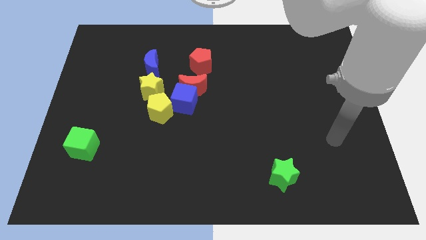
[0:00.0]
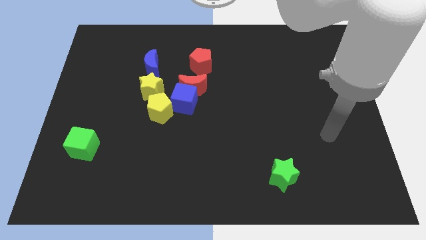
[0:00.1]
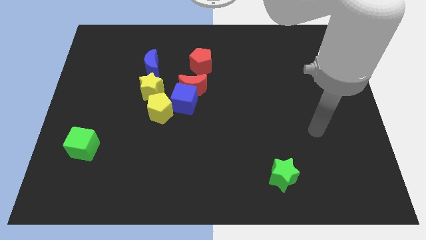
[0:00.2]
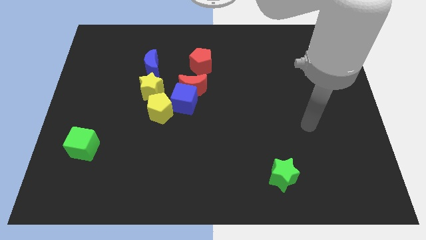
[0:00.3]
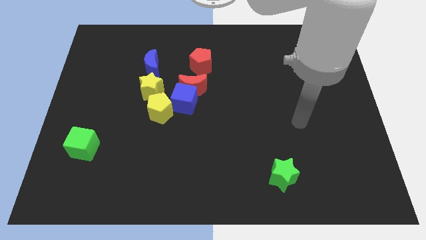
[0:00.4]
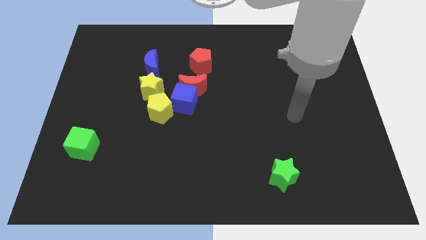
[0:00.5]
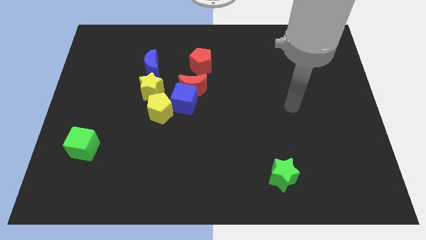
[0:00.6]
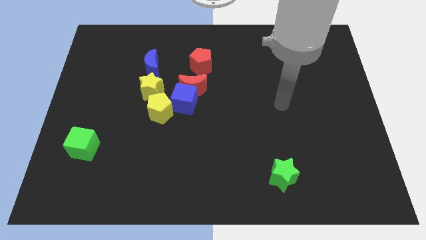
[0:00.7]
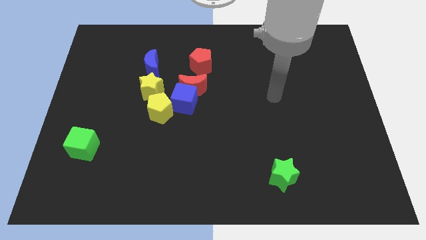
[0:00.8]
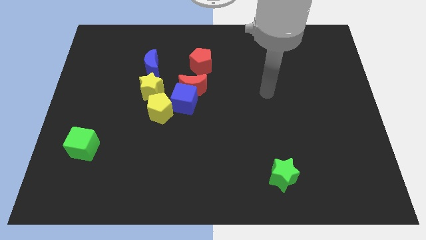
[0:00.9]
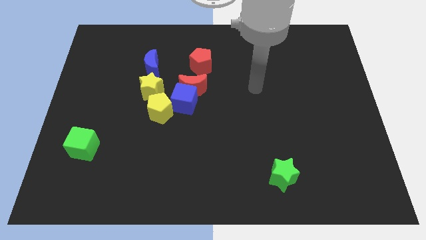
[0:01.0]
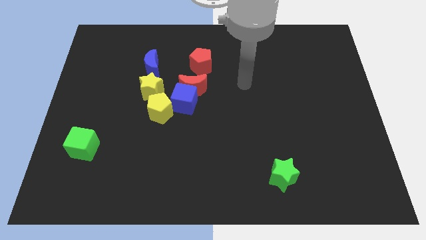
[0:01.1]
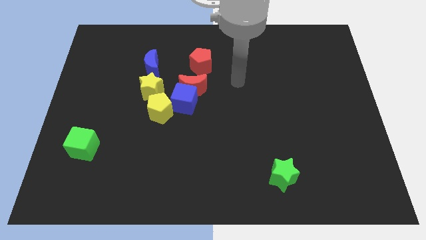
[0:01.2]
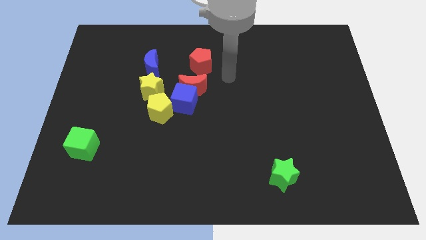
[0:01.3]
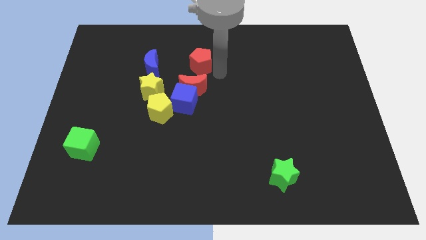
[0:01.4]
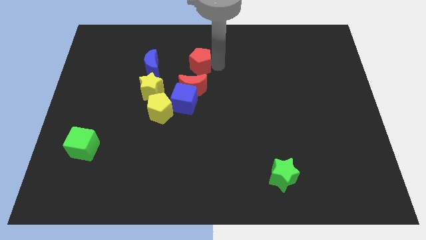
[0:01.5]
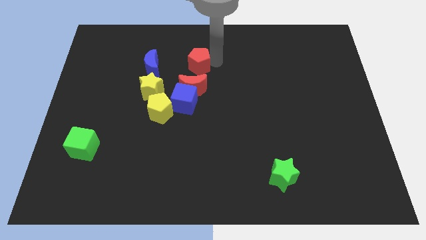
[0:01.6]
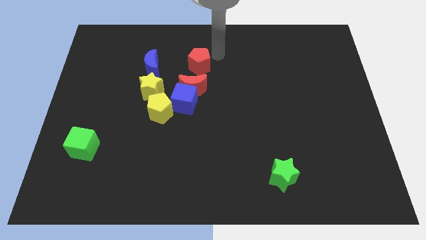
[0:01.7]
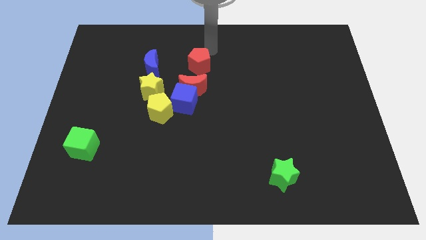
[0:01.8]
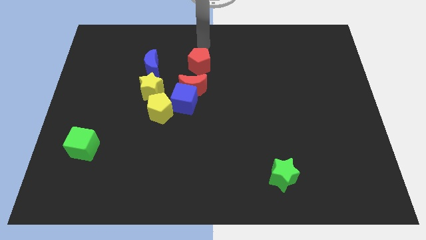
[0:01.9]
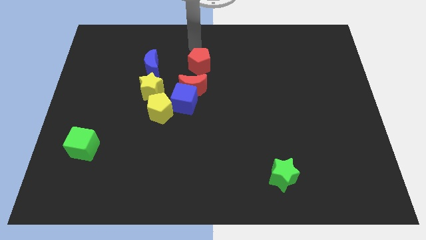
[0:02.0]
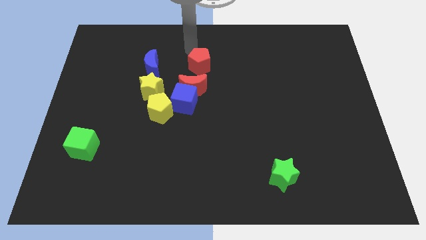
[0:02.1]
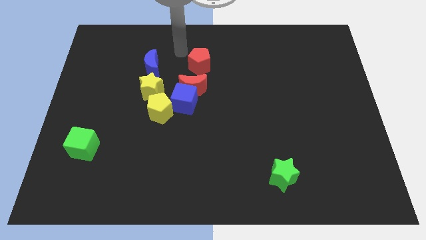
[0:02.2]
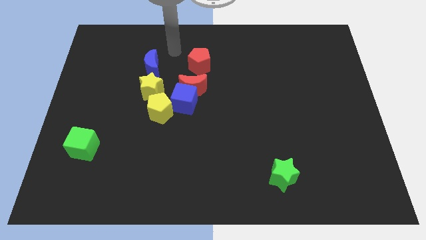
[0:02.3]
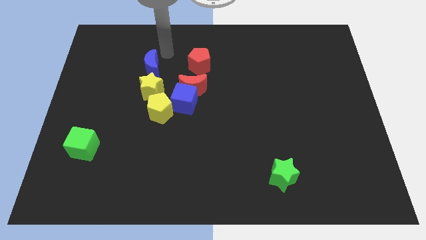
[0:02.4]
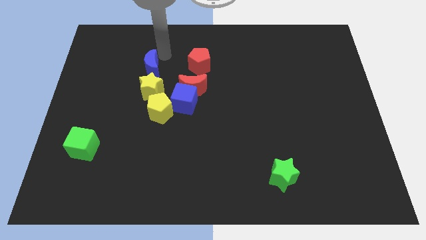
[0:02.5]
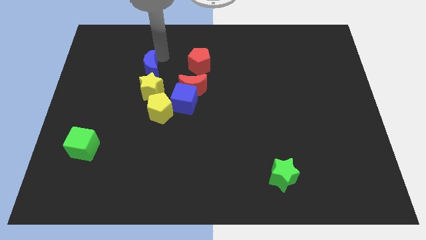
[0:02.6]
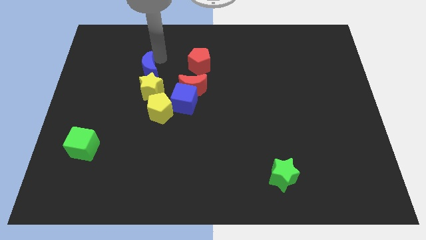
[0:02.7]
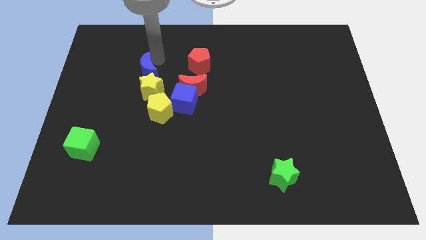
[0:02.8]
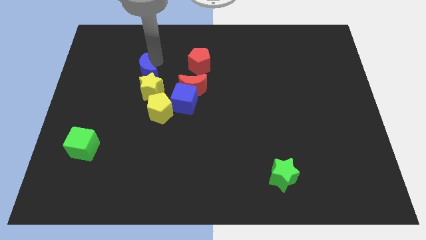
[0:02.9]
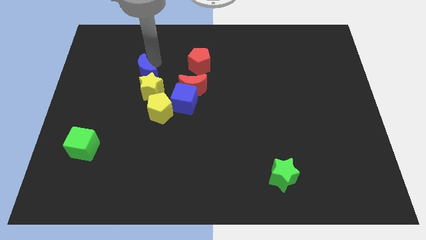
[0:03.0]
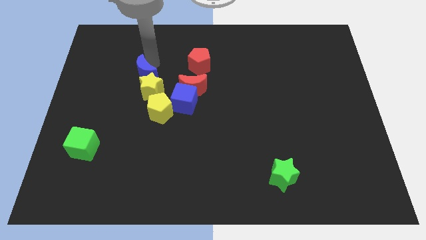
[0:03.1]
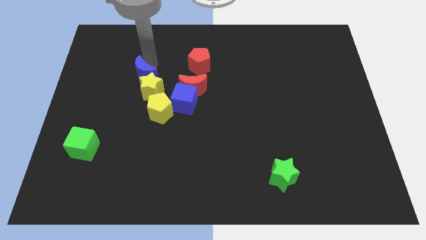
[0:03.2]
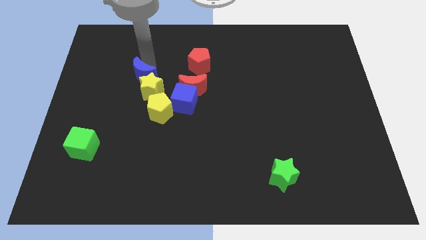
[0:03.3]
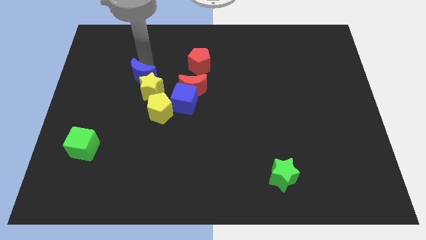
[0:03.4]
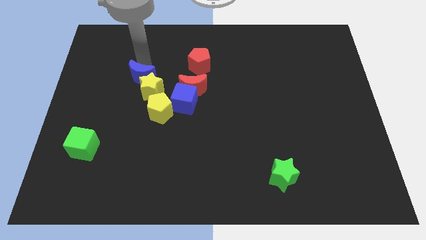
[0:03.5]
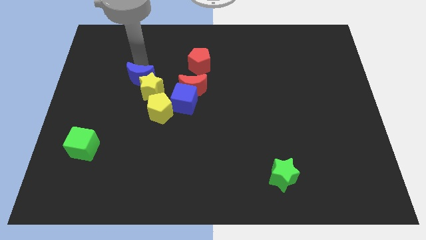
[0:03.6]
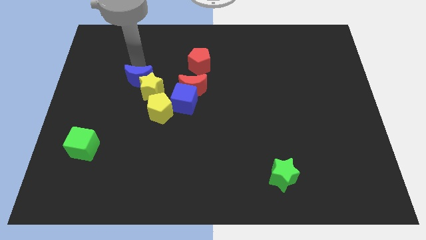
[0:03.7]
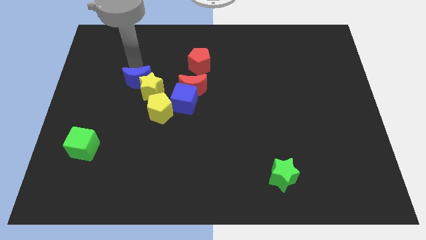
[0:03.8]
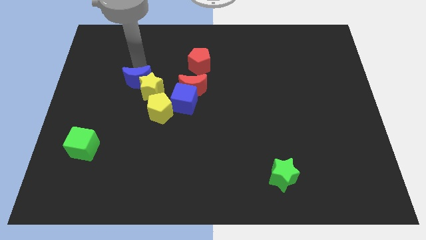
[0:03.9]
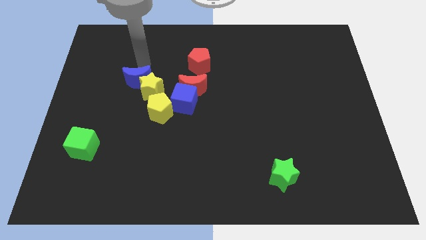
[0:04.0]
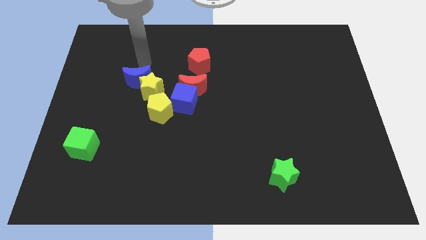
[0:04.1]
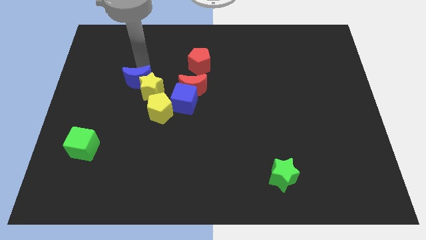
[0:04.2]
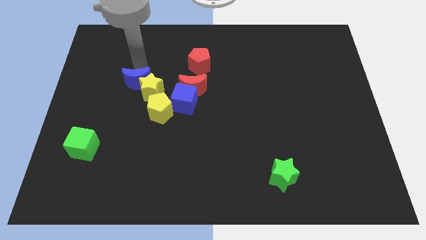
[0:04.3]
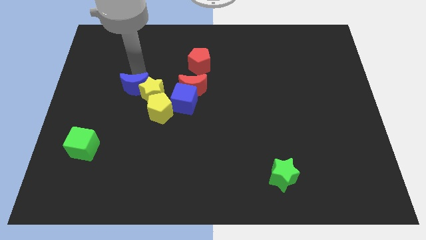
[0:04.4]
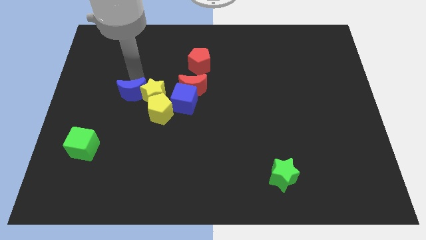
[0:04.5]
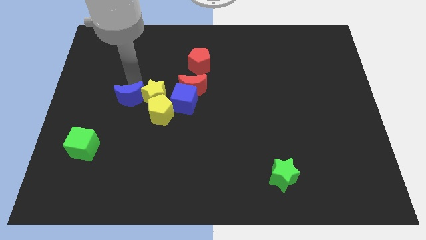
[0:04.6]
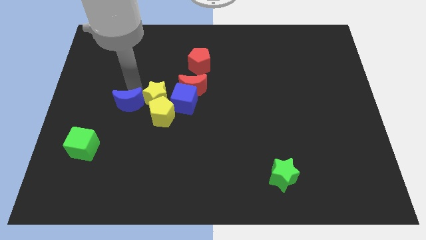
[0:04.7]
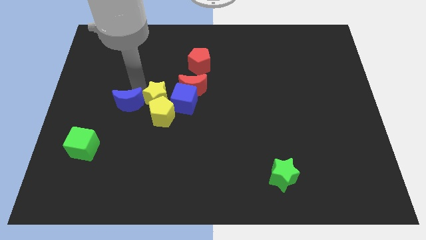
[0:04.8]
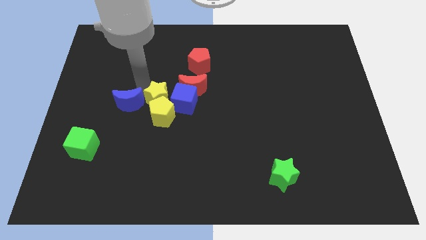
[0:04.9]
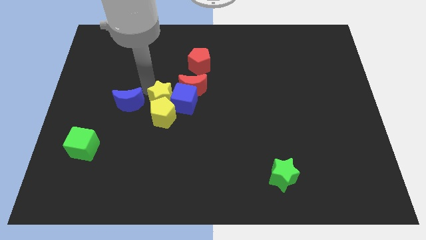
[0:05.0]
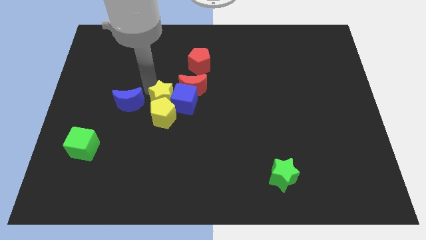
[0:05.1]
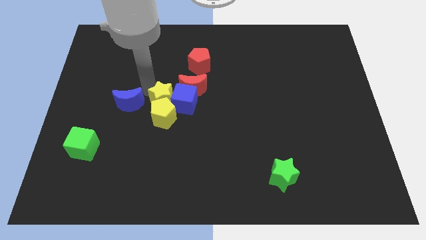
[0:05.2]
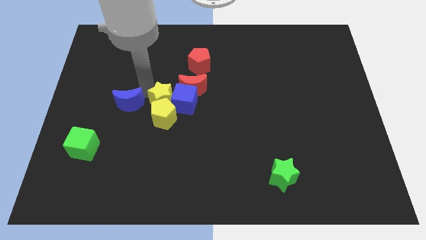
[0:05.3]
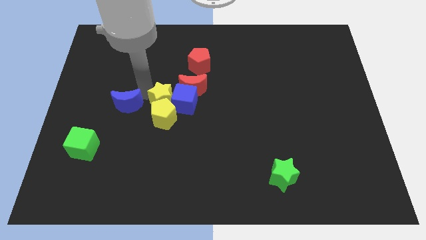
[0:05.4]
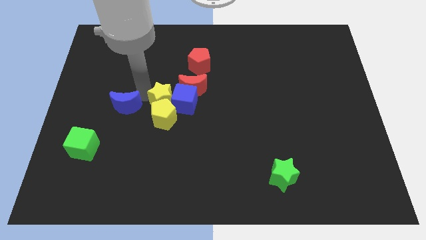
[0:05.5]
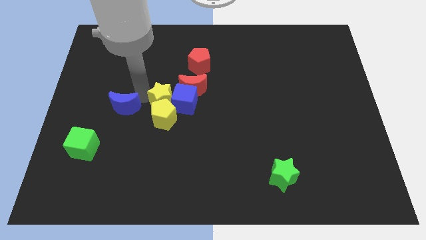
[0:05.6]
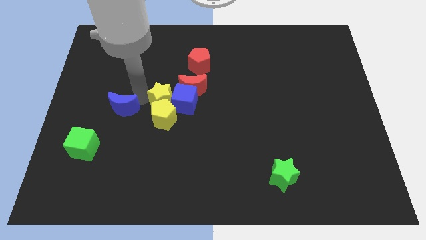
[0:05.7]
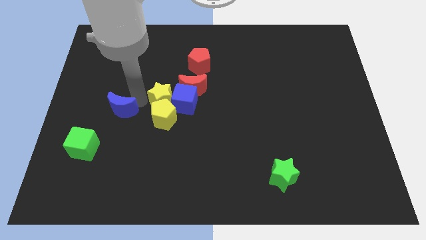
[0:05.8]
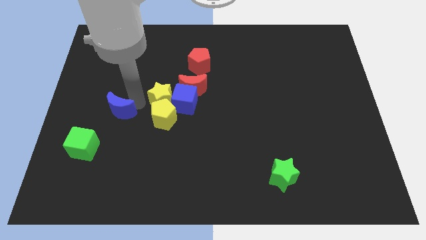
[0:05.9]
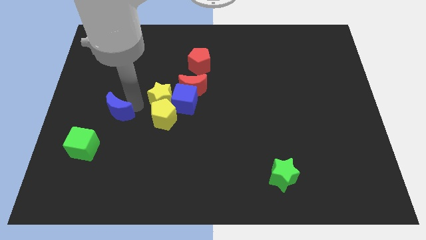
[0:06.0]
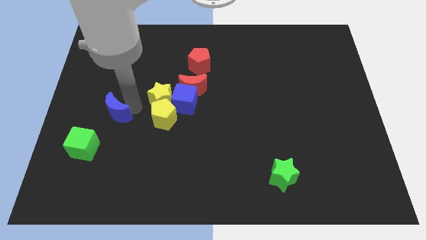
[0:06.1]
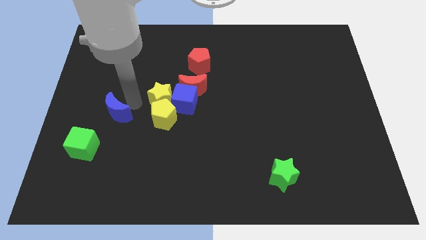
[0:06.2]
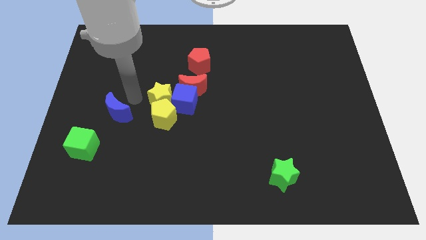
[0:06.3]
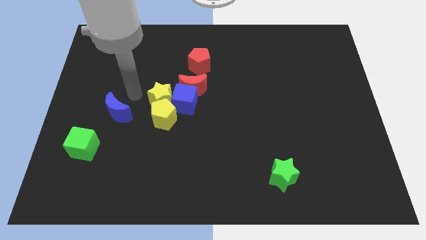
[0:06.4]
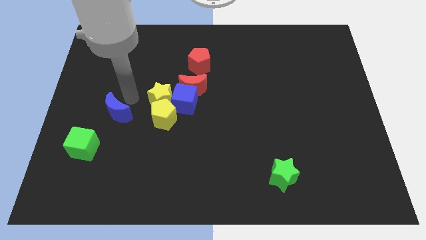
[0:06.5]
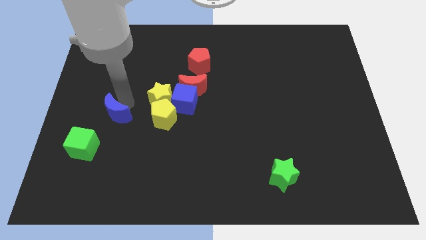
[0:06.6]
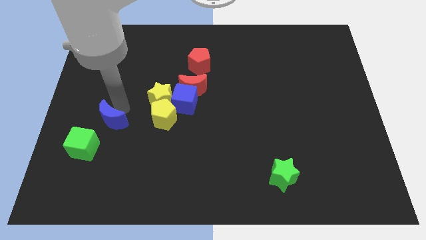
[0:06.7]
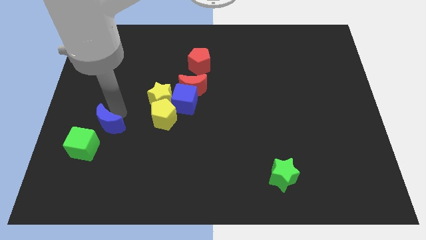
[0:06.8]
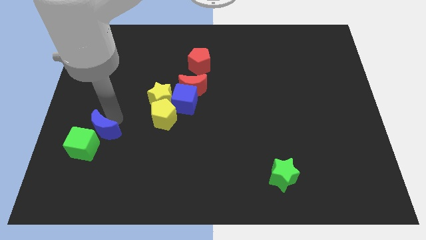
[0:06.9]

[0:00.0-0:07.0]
push the blue moon towards the green cube
